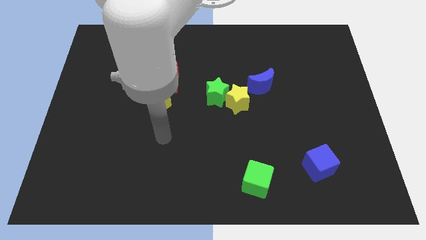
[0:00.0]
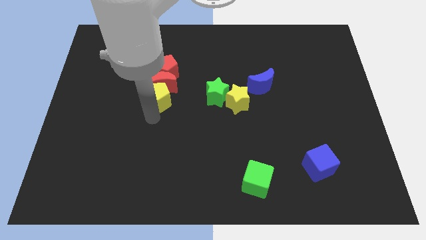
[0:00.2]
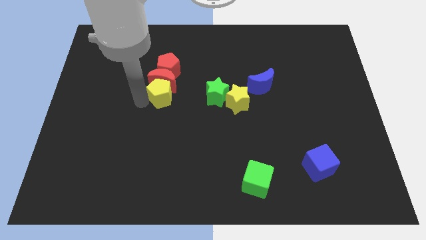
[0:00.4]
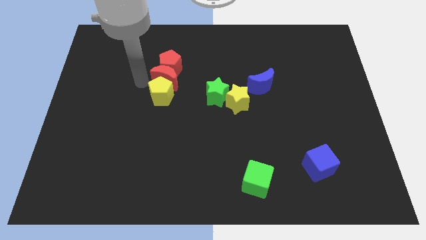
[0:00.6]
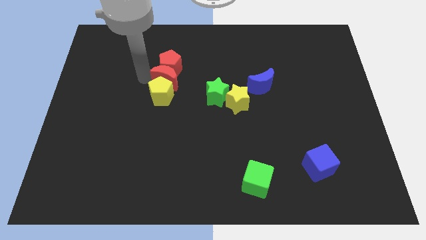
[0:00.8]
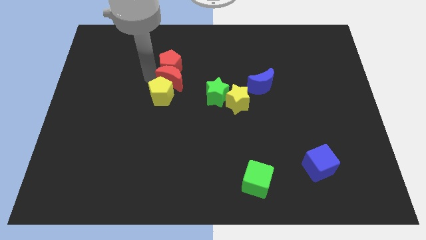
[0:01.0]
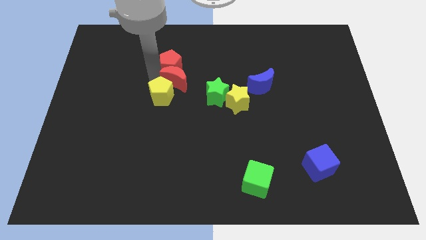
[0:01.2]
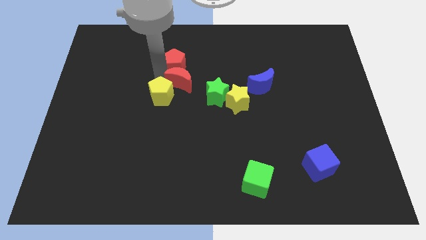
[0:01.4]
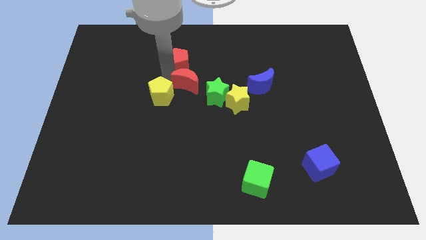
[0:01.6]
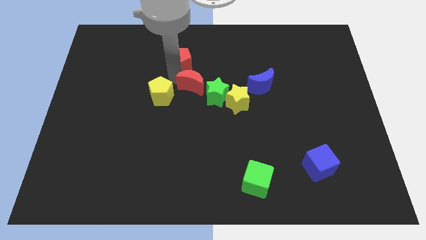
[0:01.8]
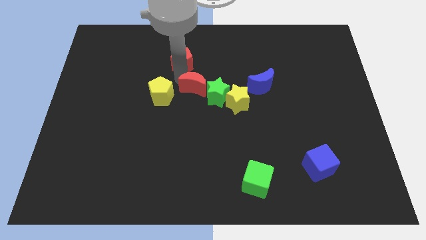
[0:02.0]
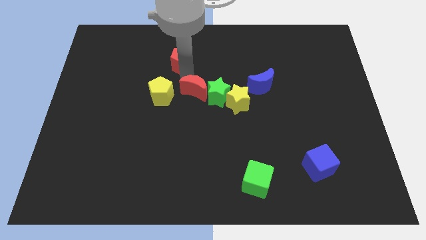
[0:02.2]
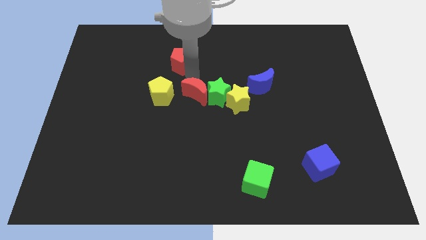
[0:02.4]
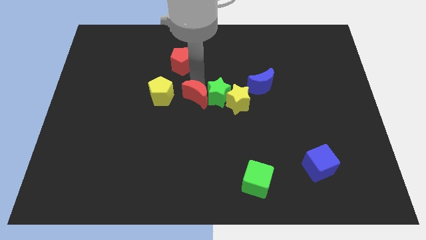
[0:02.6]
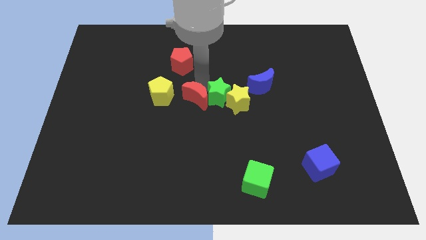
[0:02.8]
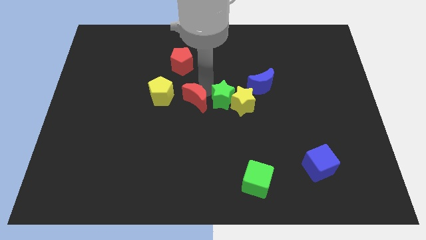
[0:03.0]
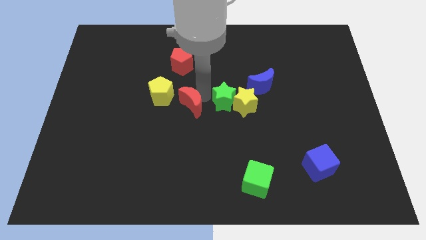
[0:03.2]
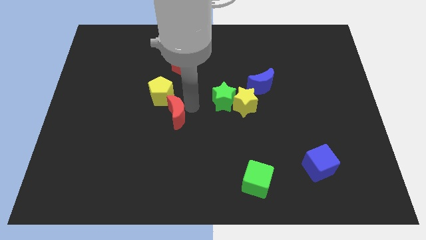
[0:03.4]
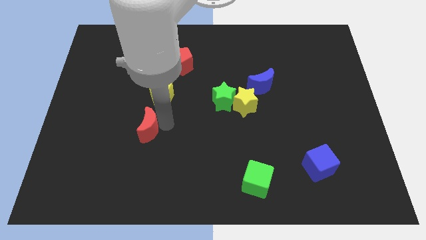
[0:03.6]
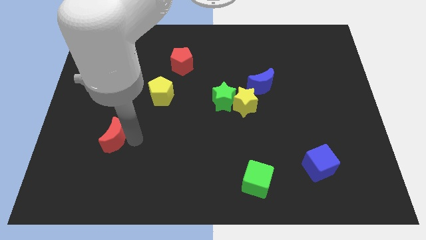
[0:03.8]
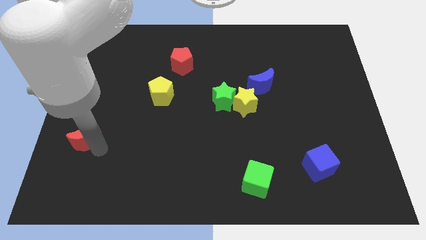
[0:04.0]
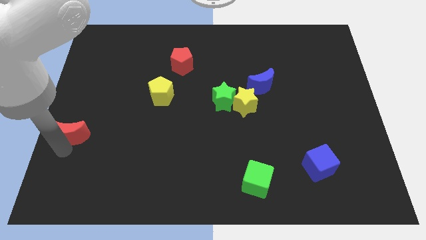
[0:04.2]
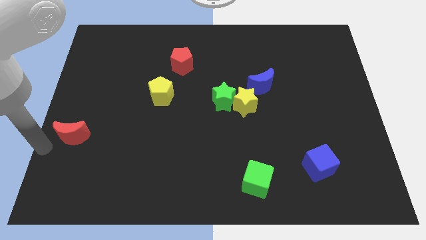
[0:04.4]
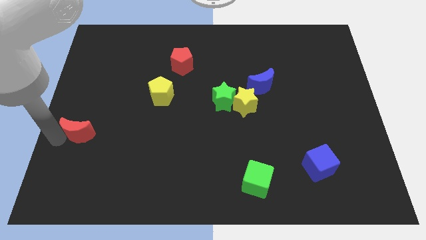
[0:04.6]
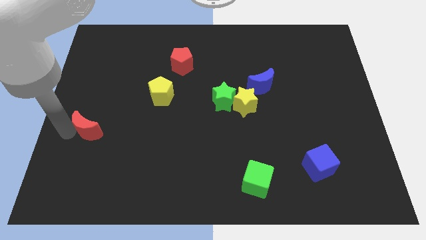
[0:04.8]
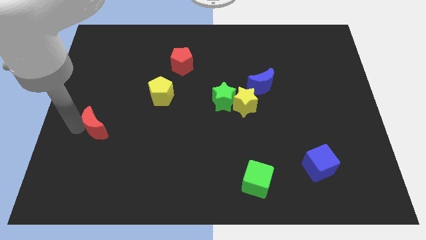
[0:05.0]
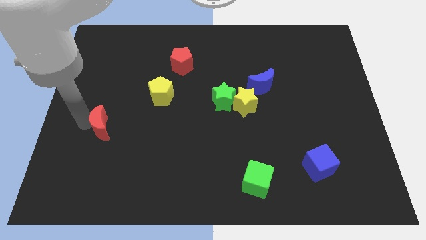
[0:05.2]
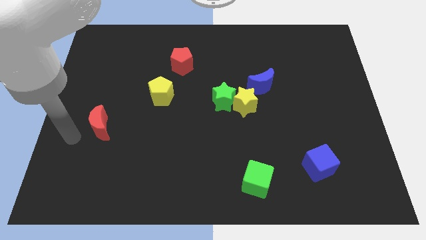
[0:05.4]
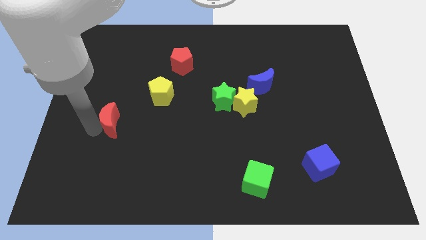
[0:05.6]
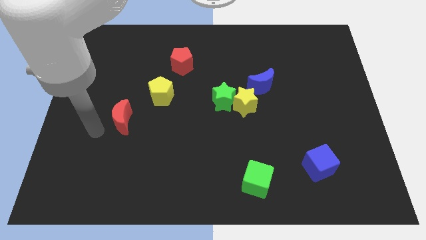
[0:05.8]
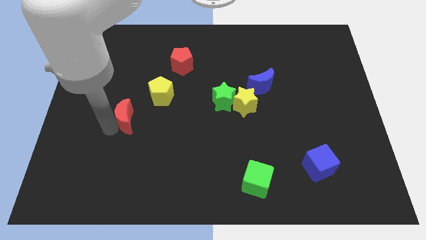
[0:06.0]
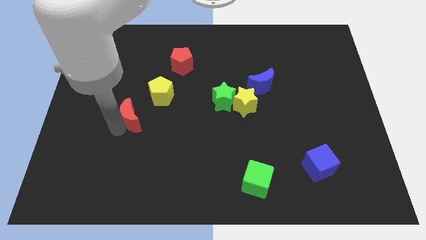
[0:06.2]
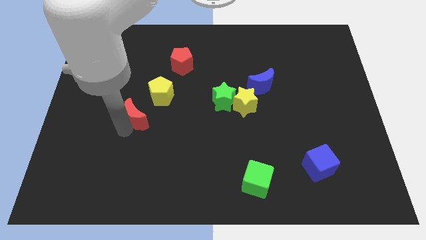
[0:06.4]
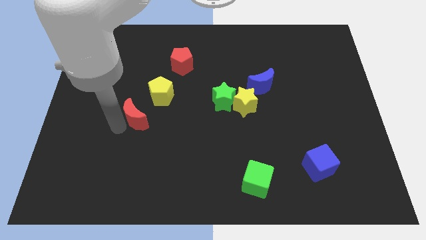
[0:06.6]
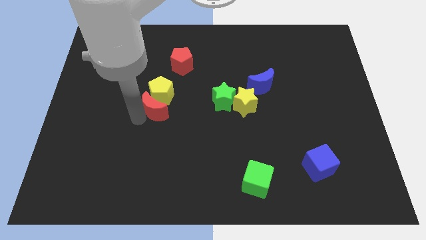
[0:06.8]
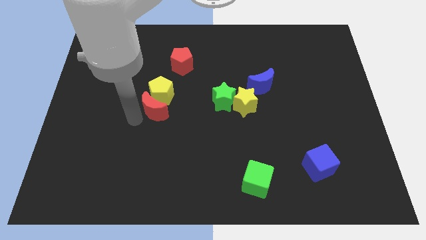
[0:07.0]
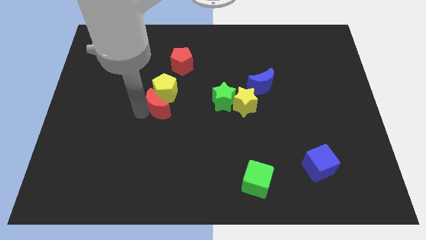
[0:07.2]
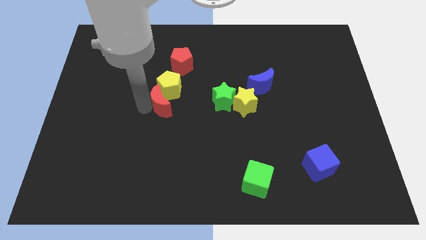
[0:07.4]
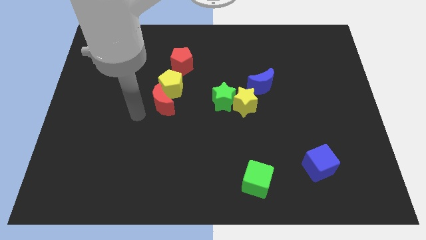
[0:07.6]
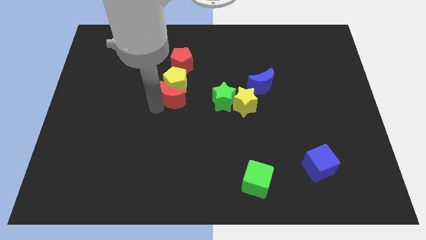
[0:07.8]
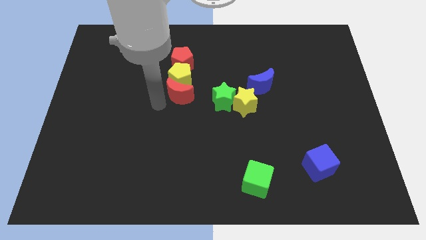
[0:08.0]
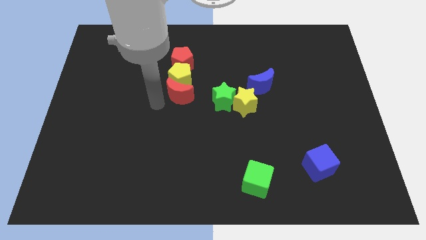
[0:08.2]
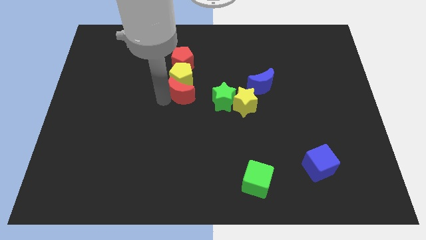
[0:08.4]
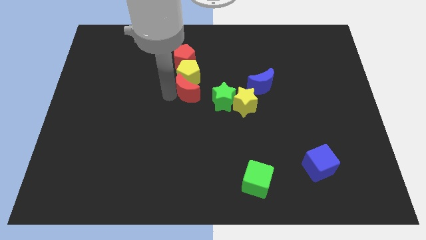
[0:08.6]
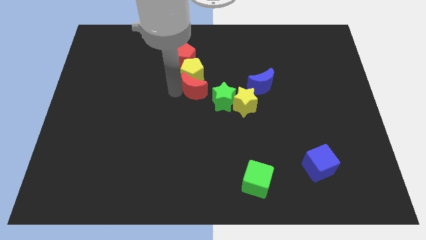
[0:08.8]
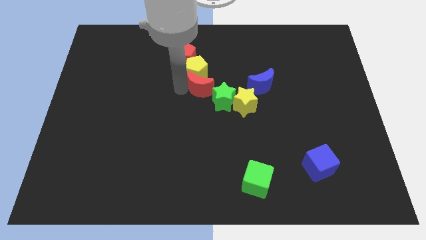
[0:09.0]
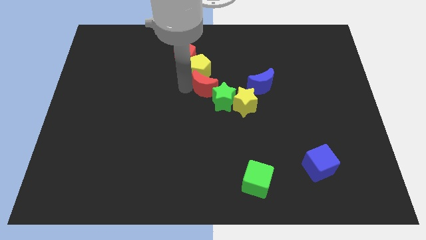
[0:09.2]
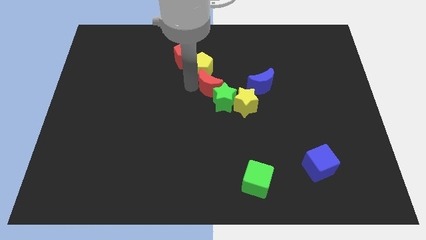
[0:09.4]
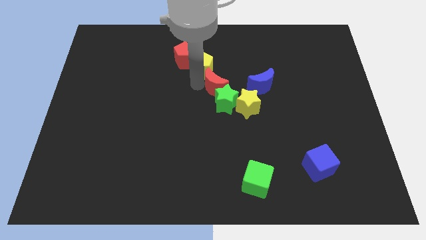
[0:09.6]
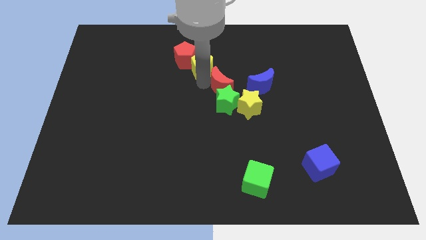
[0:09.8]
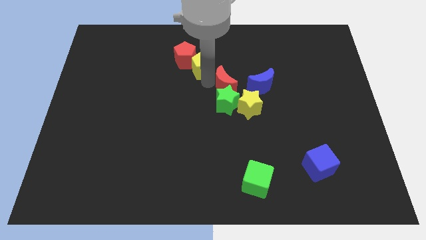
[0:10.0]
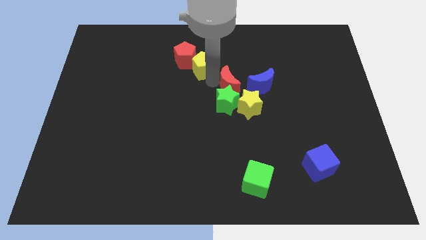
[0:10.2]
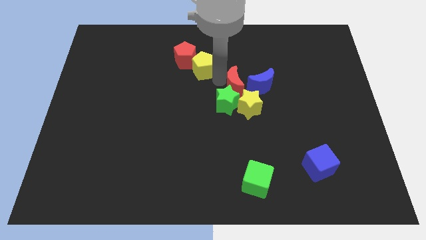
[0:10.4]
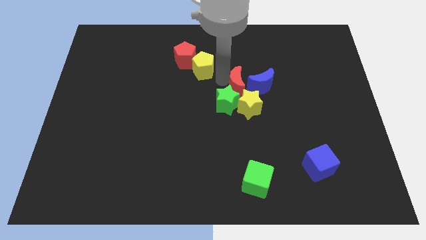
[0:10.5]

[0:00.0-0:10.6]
slide the red moon close to the blue moon

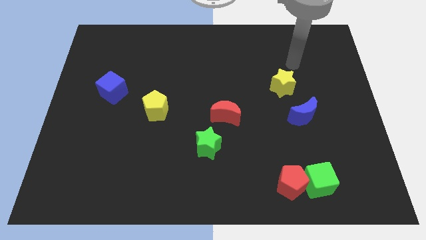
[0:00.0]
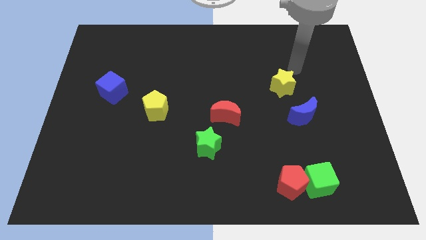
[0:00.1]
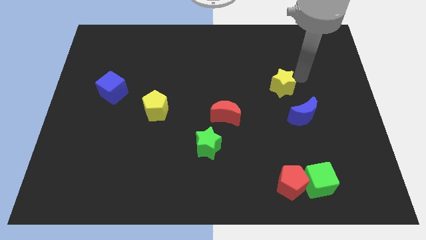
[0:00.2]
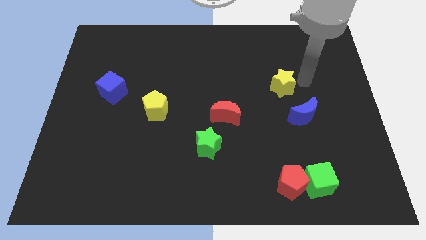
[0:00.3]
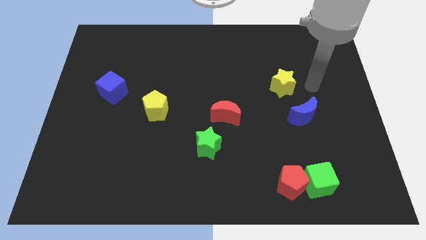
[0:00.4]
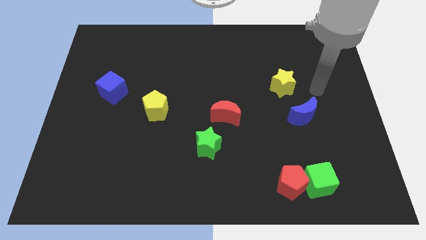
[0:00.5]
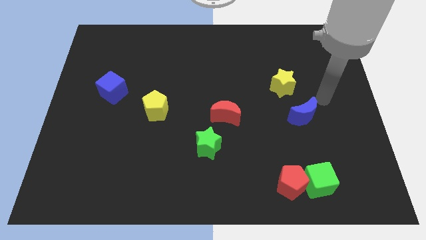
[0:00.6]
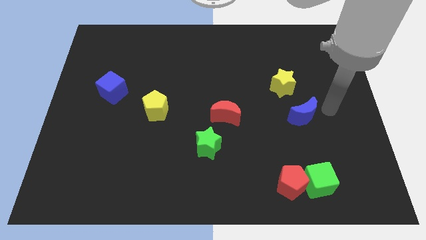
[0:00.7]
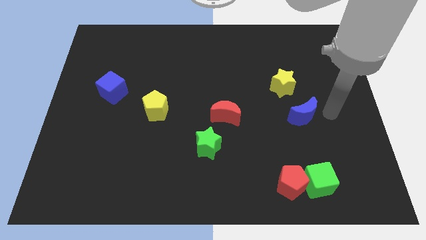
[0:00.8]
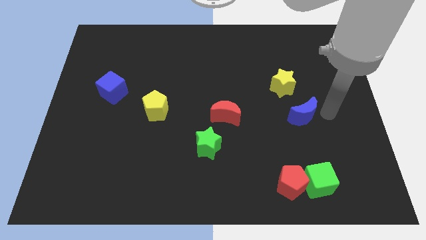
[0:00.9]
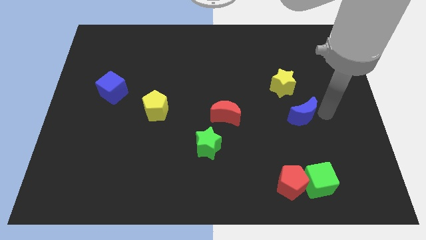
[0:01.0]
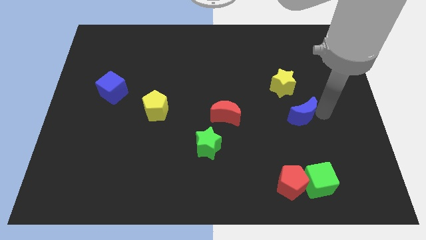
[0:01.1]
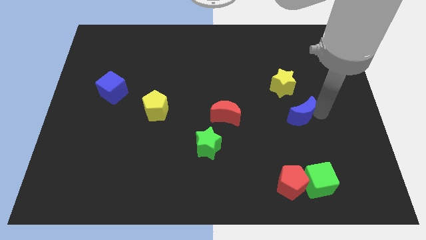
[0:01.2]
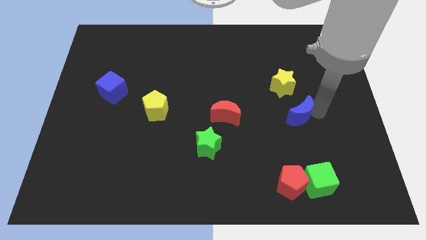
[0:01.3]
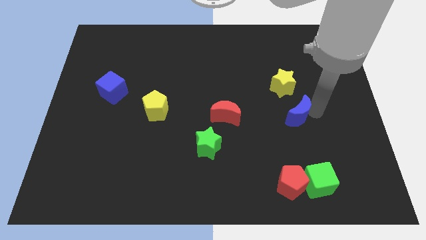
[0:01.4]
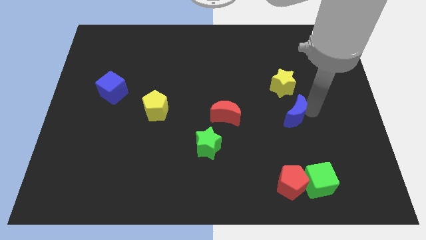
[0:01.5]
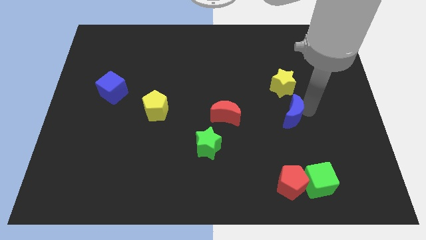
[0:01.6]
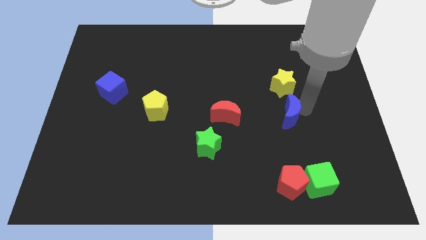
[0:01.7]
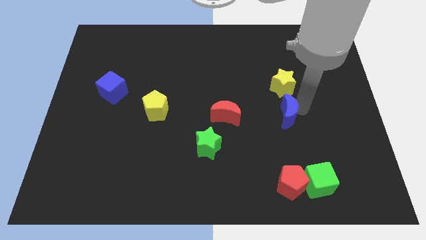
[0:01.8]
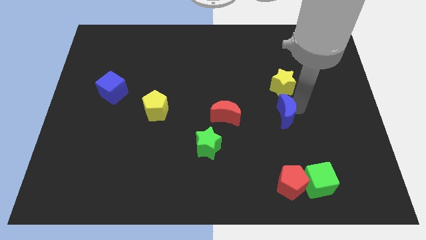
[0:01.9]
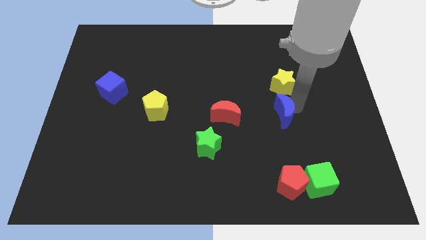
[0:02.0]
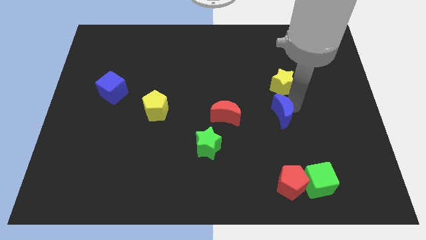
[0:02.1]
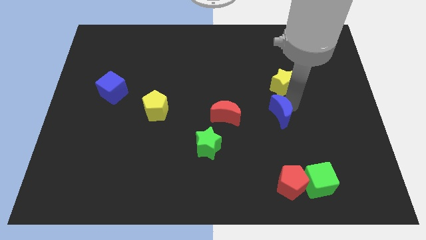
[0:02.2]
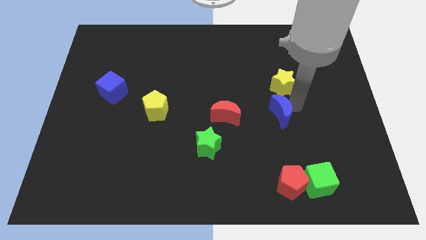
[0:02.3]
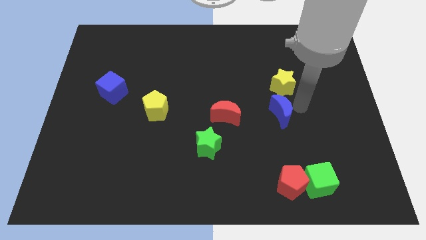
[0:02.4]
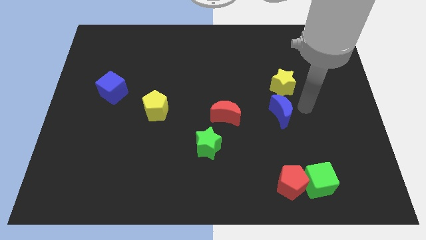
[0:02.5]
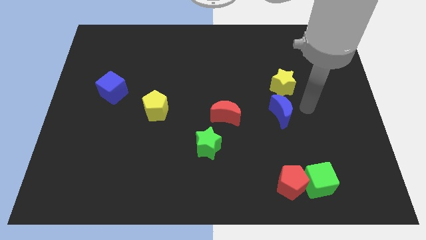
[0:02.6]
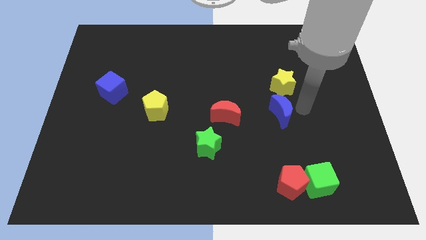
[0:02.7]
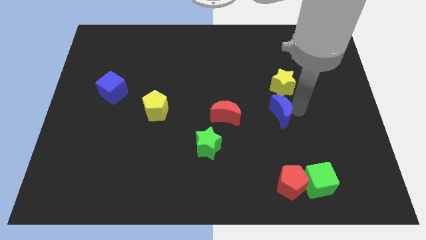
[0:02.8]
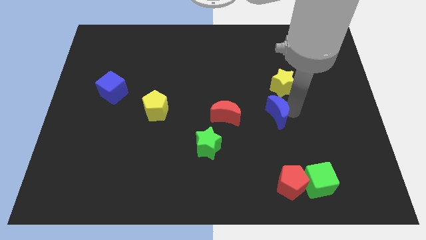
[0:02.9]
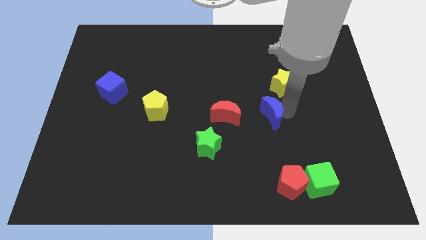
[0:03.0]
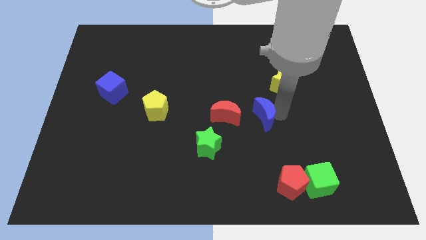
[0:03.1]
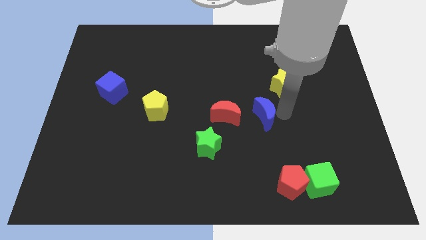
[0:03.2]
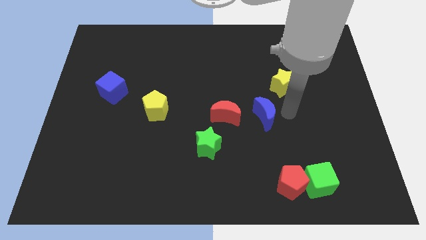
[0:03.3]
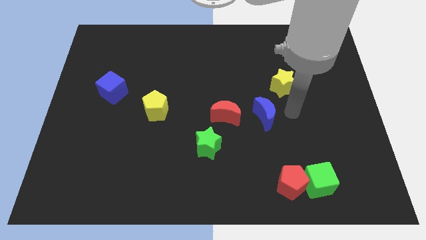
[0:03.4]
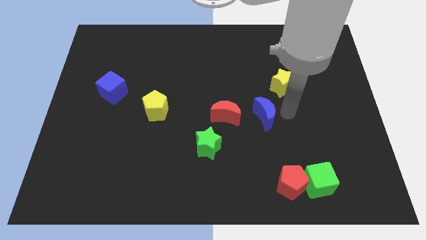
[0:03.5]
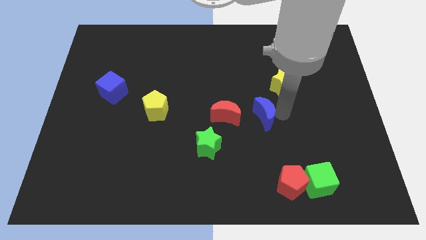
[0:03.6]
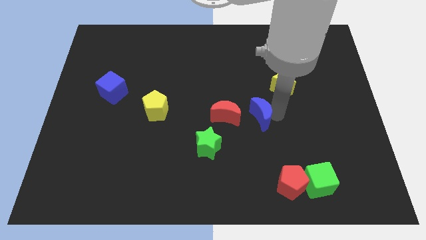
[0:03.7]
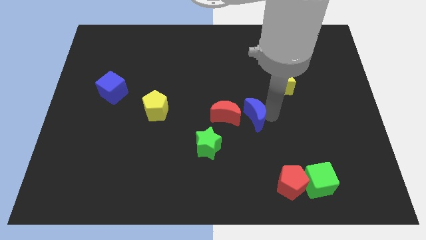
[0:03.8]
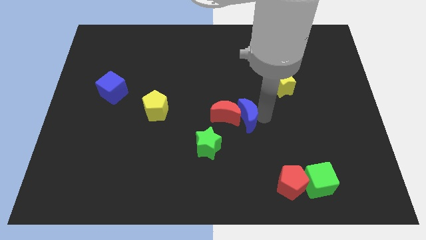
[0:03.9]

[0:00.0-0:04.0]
slide the blue moon to the red moon
